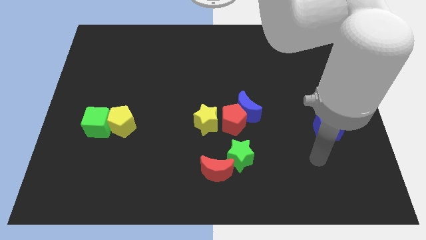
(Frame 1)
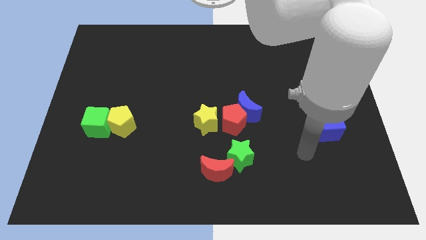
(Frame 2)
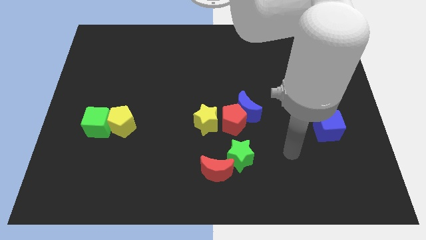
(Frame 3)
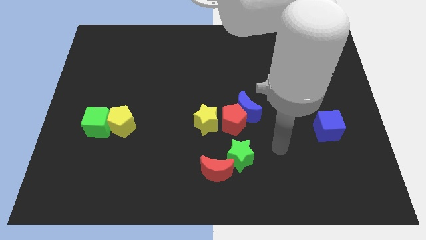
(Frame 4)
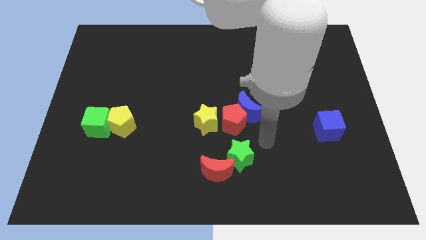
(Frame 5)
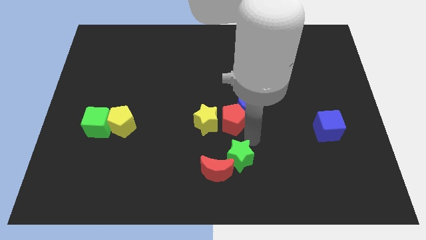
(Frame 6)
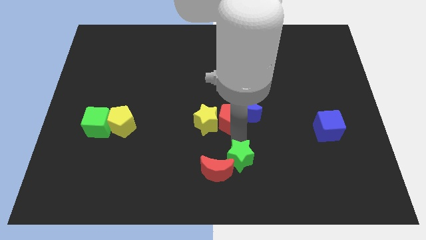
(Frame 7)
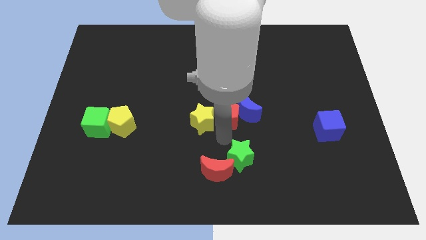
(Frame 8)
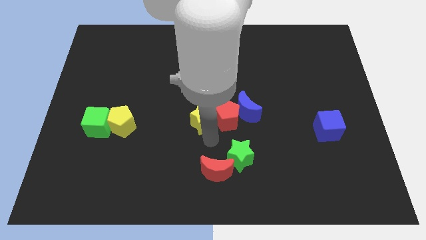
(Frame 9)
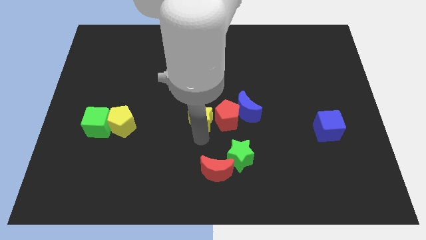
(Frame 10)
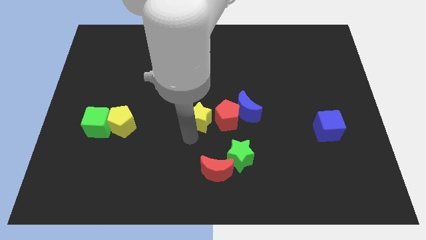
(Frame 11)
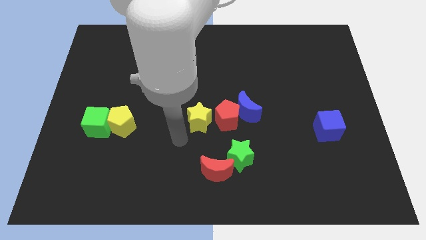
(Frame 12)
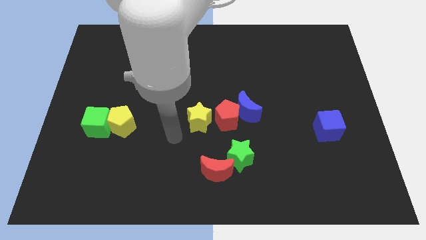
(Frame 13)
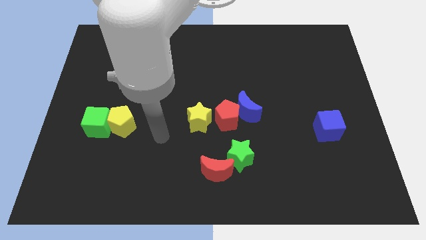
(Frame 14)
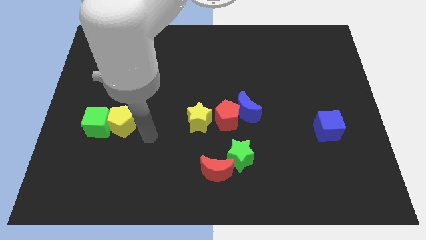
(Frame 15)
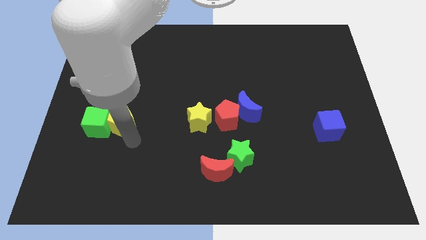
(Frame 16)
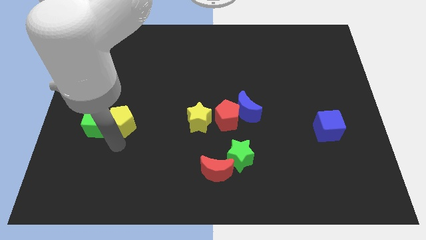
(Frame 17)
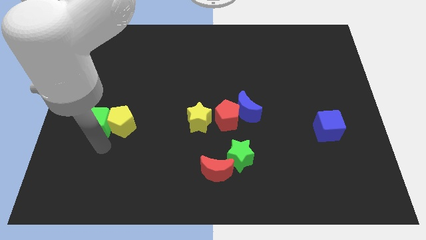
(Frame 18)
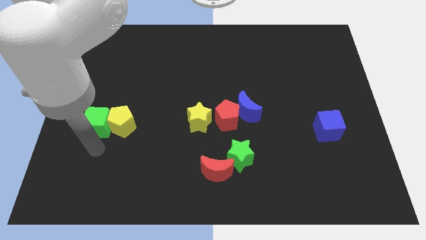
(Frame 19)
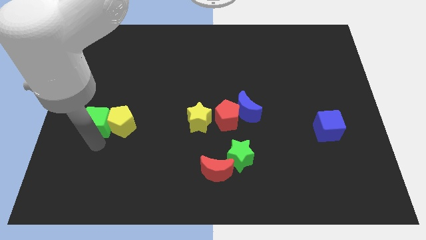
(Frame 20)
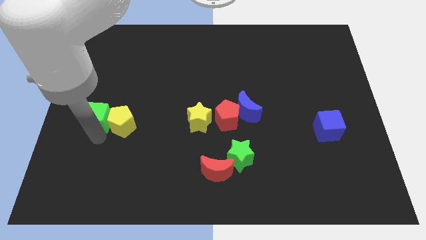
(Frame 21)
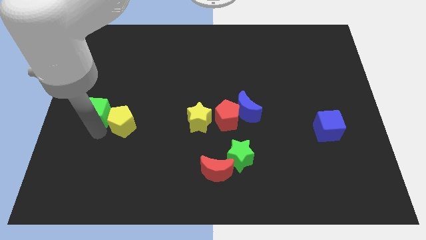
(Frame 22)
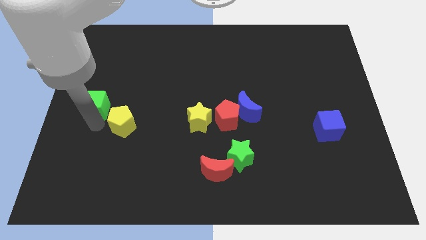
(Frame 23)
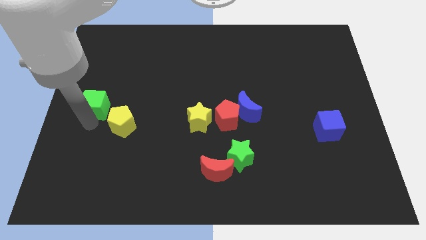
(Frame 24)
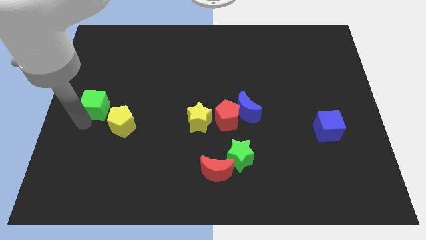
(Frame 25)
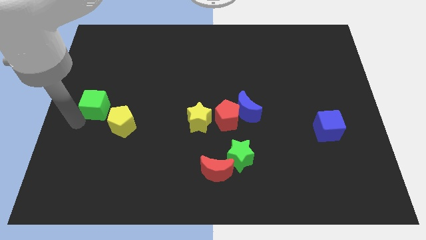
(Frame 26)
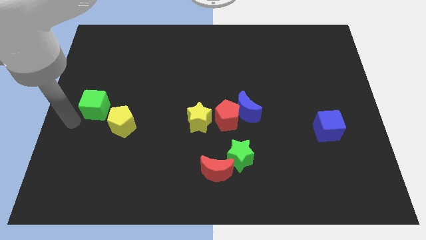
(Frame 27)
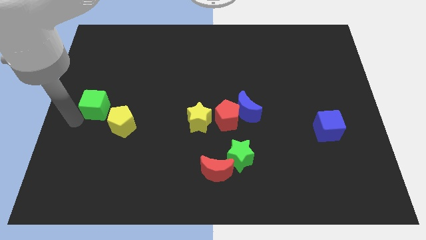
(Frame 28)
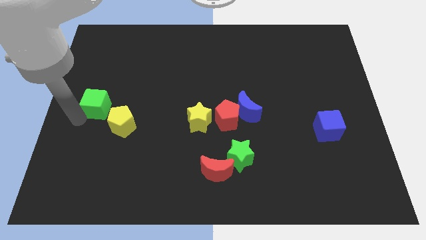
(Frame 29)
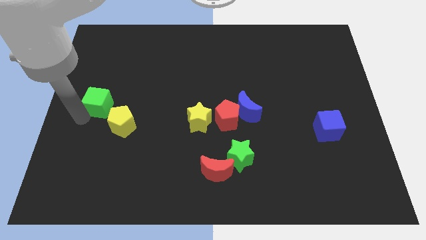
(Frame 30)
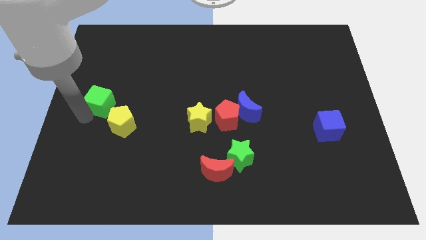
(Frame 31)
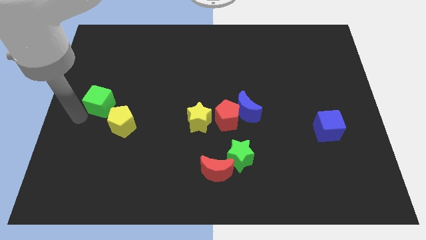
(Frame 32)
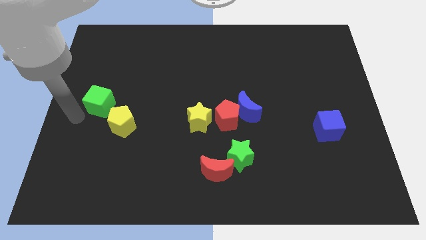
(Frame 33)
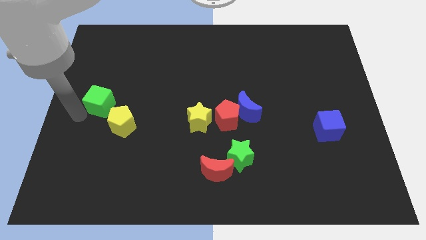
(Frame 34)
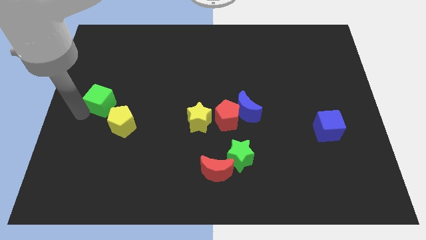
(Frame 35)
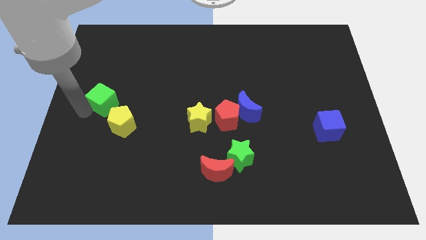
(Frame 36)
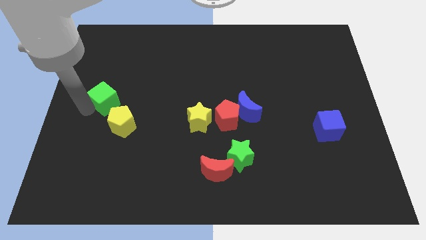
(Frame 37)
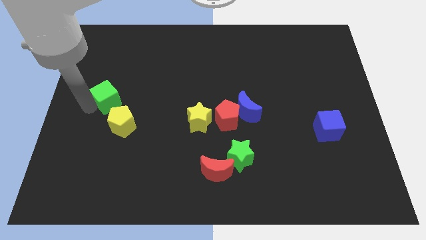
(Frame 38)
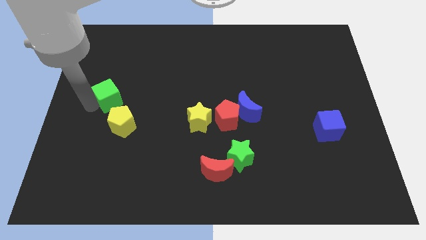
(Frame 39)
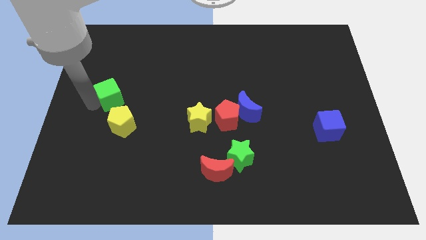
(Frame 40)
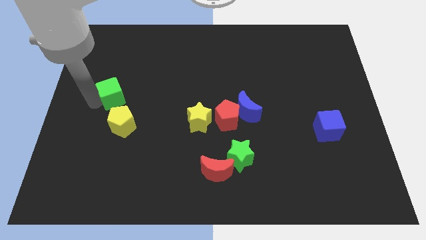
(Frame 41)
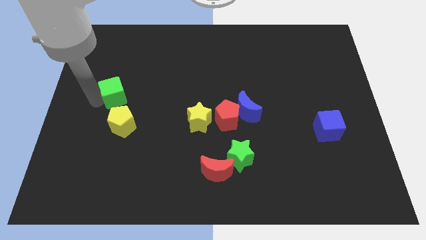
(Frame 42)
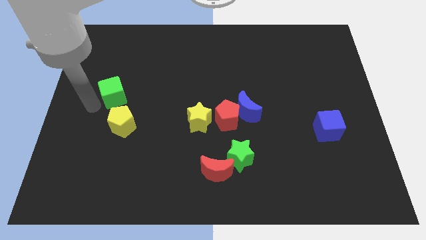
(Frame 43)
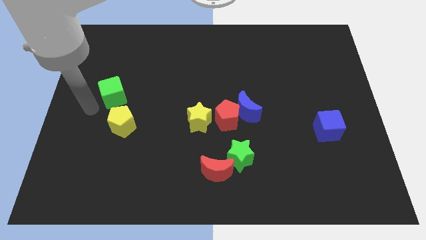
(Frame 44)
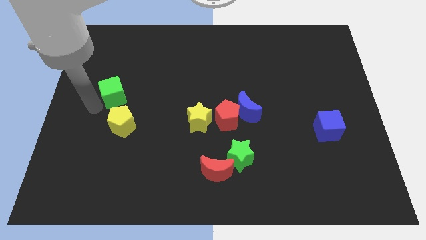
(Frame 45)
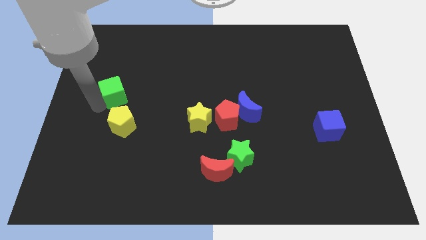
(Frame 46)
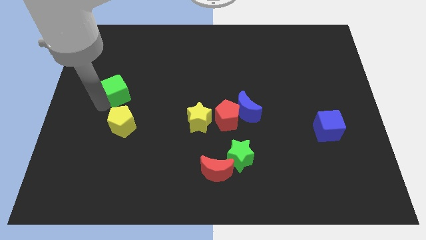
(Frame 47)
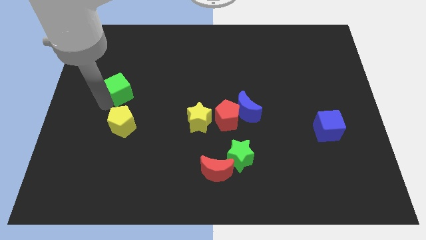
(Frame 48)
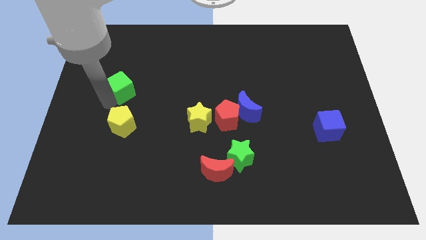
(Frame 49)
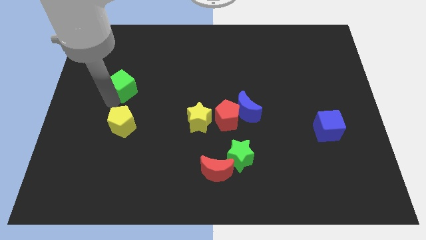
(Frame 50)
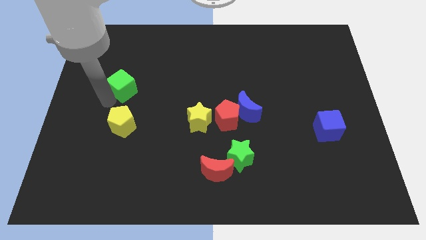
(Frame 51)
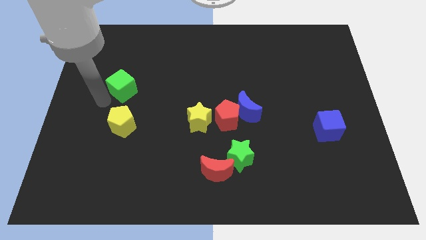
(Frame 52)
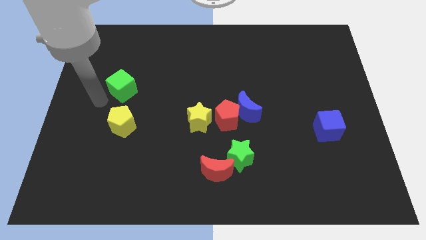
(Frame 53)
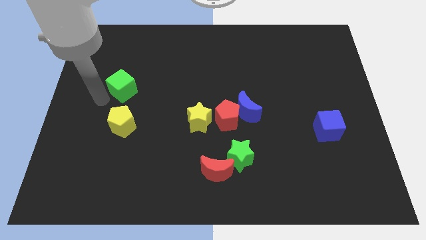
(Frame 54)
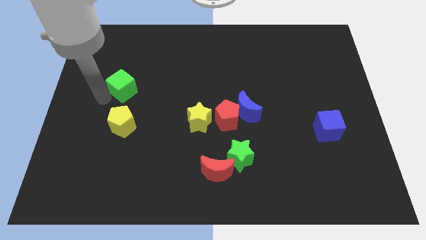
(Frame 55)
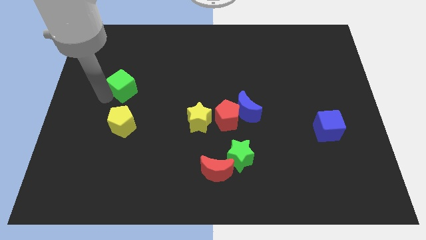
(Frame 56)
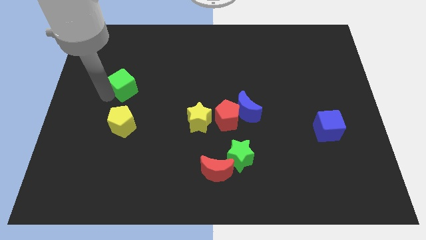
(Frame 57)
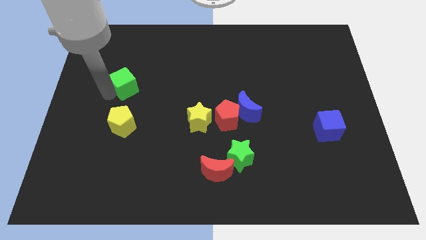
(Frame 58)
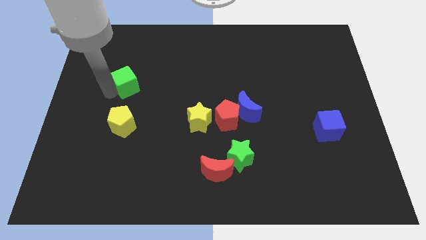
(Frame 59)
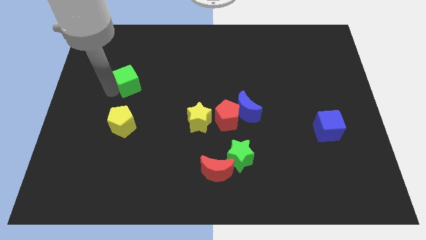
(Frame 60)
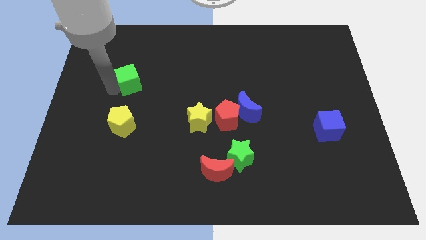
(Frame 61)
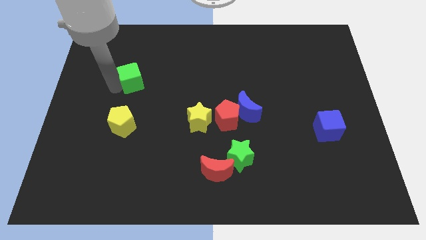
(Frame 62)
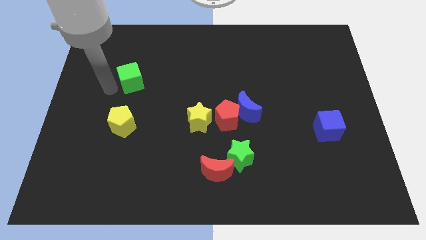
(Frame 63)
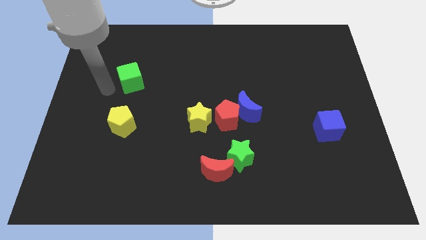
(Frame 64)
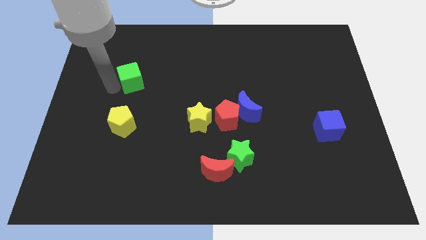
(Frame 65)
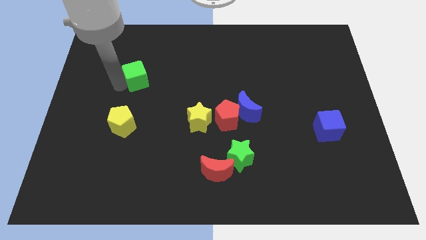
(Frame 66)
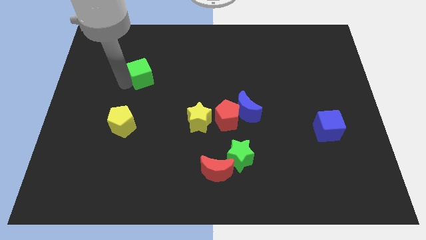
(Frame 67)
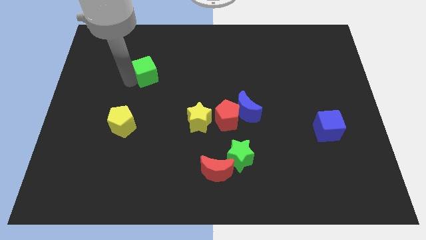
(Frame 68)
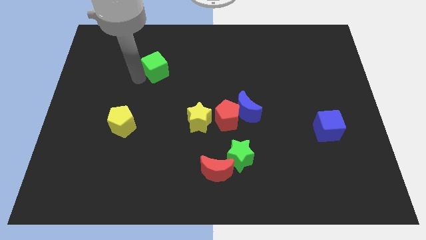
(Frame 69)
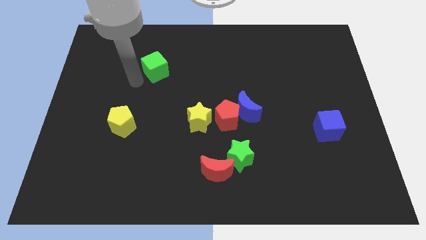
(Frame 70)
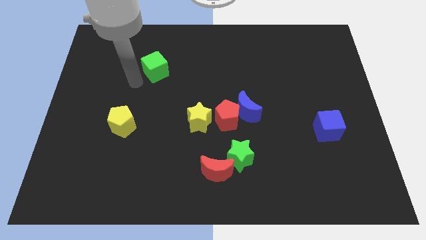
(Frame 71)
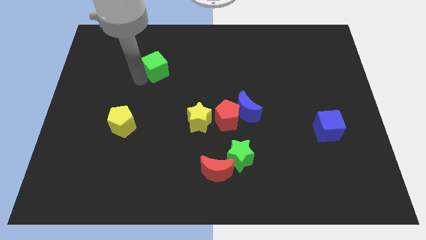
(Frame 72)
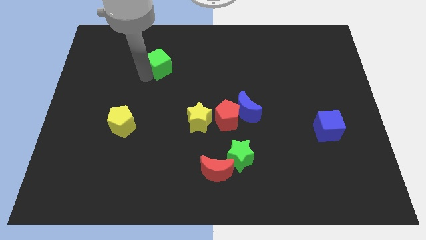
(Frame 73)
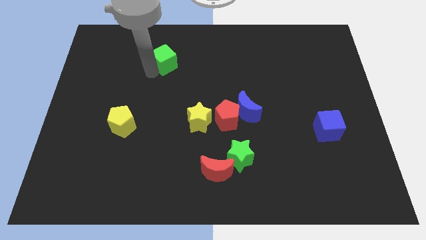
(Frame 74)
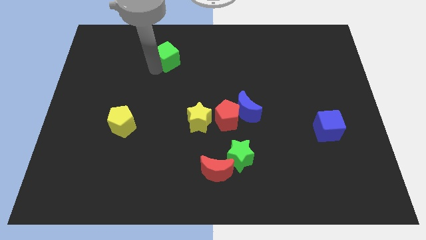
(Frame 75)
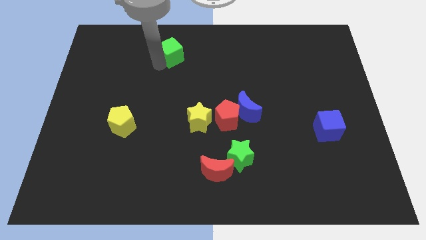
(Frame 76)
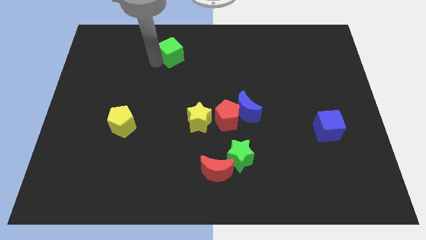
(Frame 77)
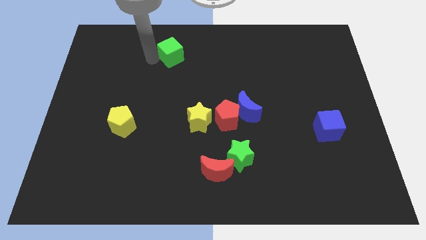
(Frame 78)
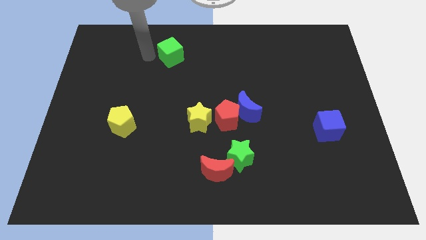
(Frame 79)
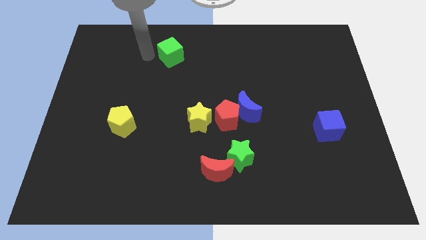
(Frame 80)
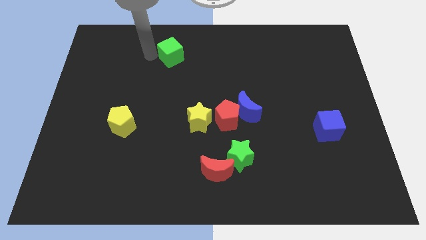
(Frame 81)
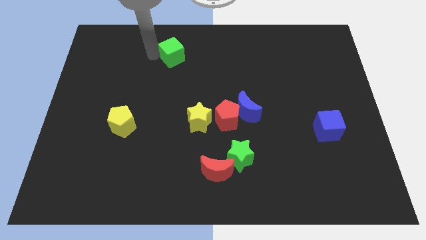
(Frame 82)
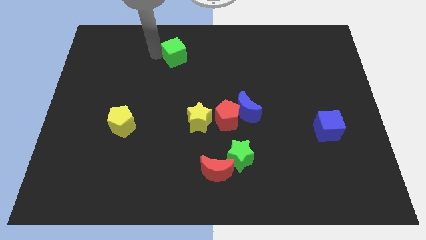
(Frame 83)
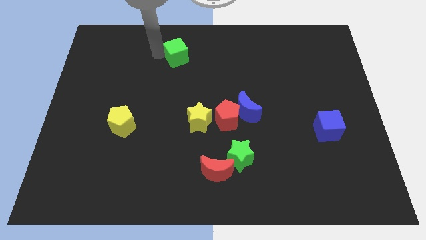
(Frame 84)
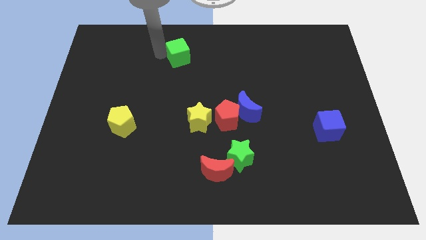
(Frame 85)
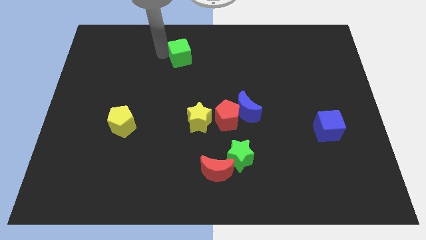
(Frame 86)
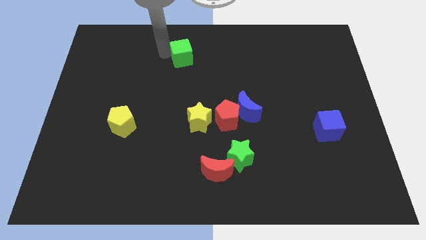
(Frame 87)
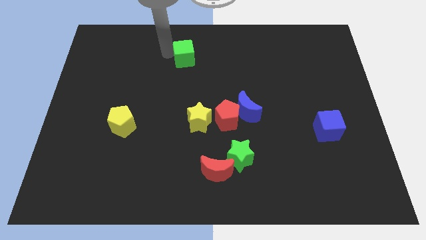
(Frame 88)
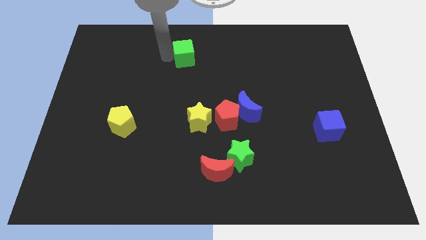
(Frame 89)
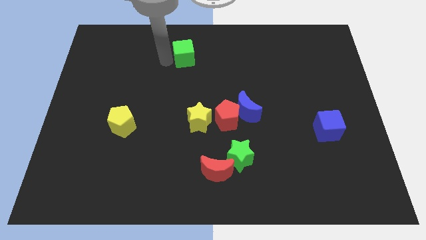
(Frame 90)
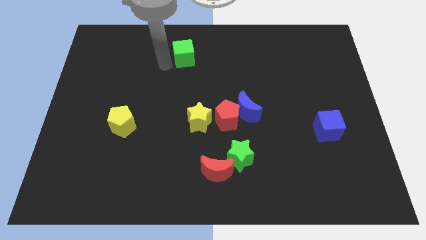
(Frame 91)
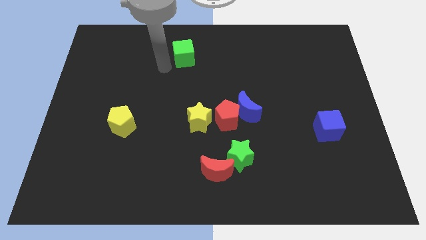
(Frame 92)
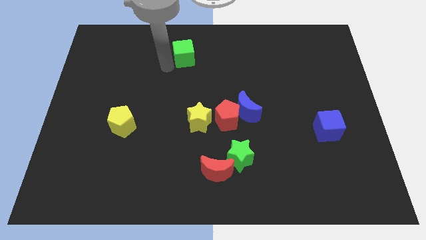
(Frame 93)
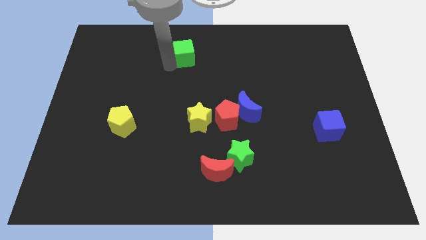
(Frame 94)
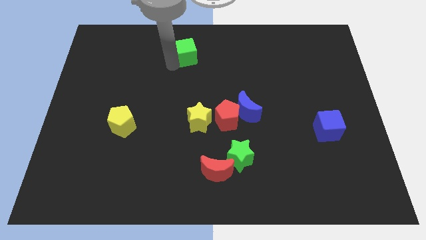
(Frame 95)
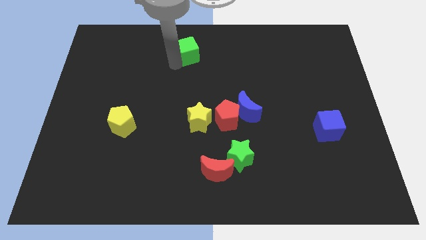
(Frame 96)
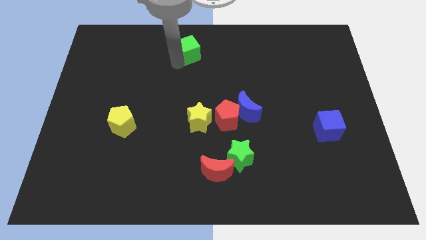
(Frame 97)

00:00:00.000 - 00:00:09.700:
move the green cube to the towards your base
